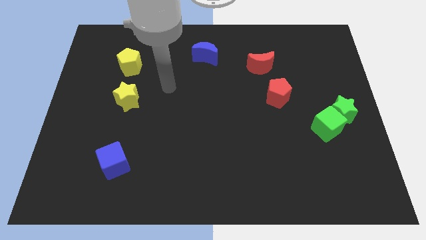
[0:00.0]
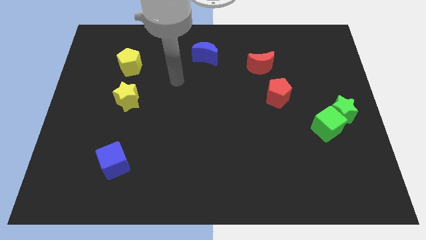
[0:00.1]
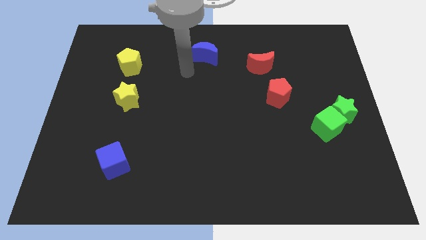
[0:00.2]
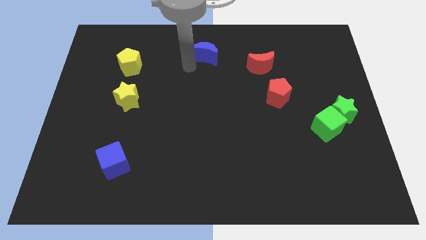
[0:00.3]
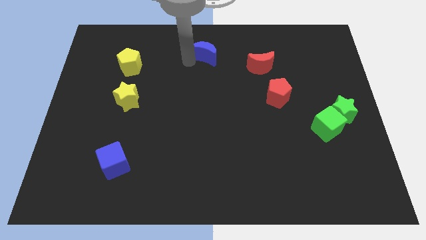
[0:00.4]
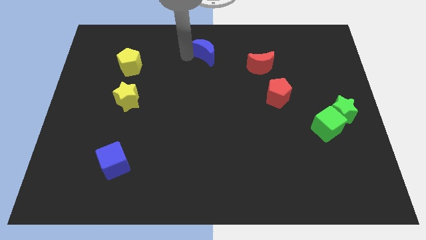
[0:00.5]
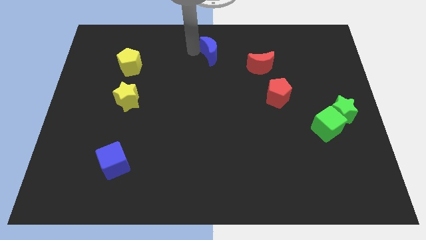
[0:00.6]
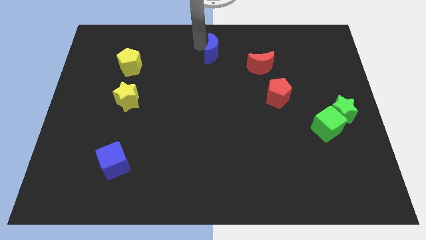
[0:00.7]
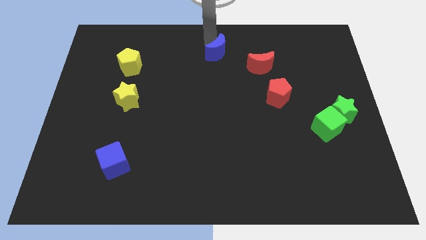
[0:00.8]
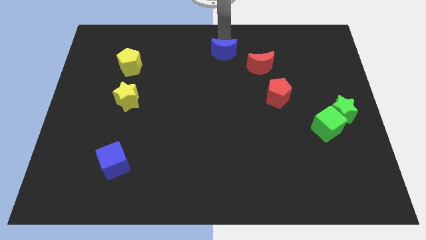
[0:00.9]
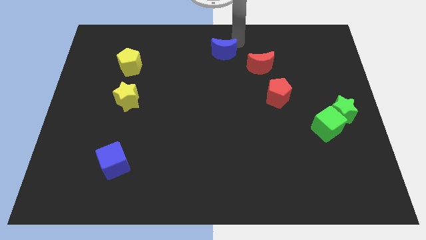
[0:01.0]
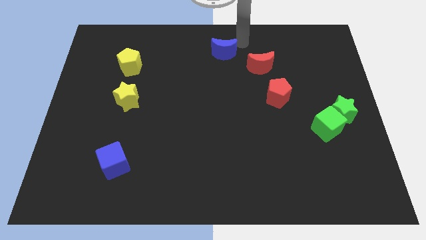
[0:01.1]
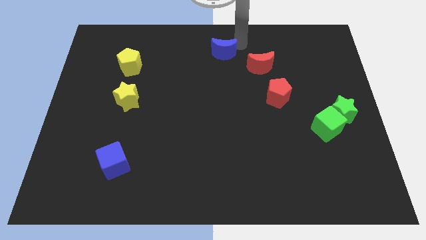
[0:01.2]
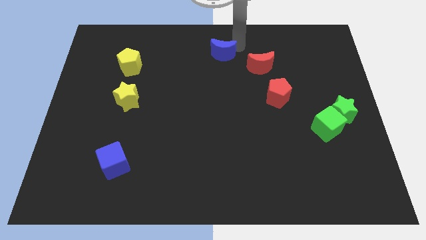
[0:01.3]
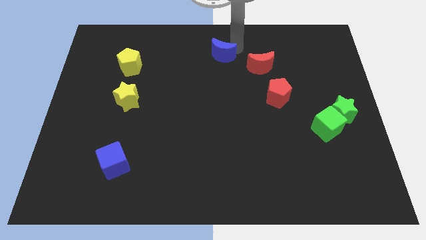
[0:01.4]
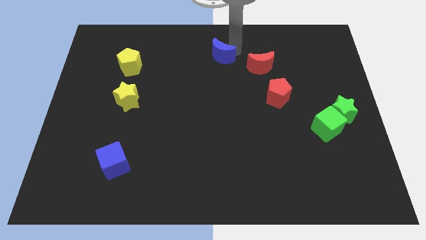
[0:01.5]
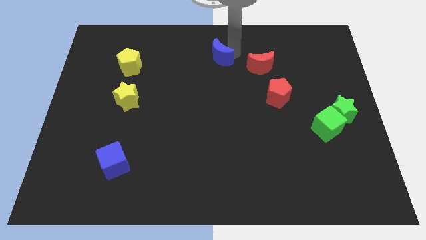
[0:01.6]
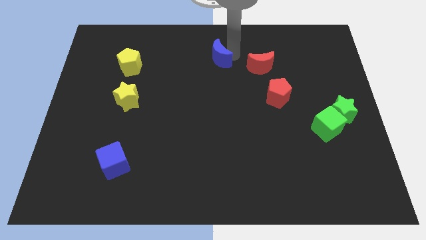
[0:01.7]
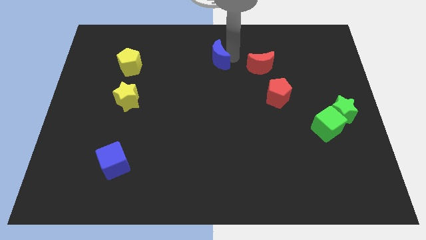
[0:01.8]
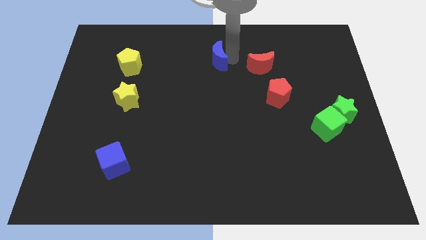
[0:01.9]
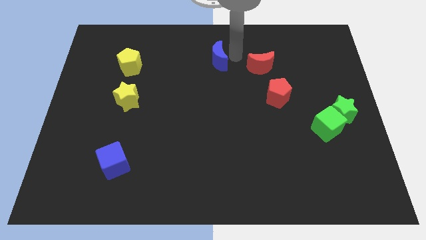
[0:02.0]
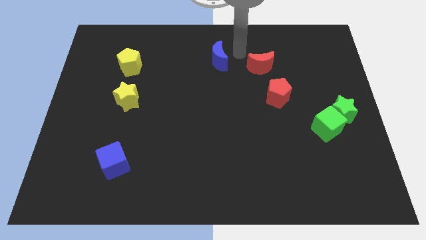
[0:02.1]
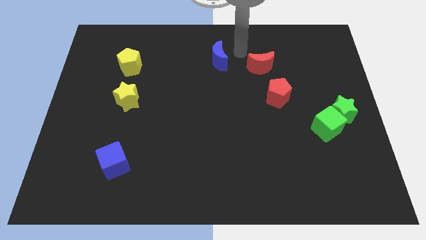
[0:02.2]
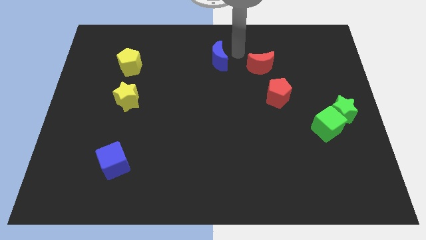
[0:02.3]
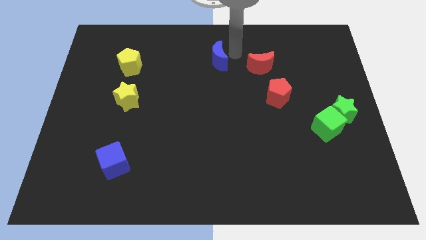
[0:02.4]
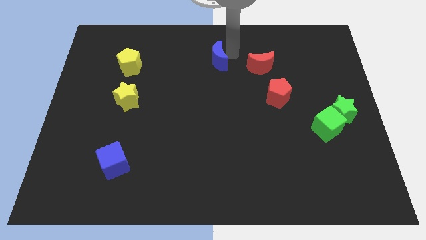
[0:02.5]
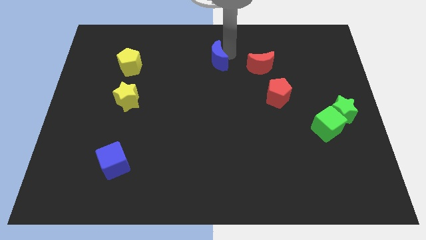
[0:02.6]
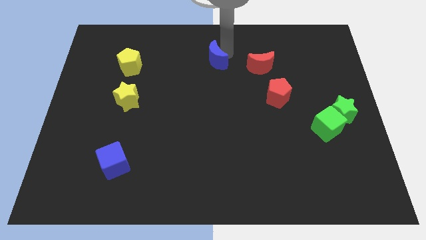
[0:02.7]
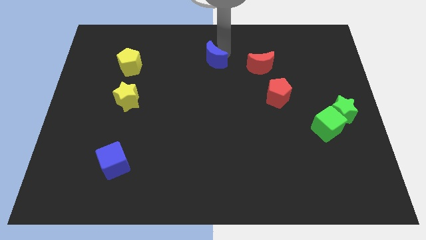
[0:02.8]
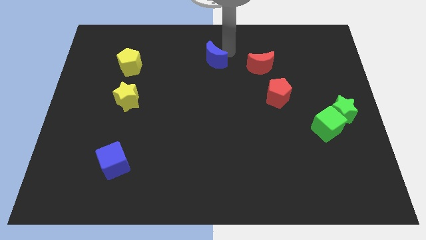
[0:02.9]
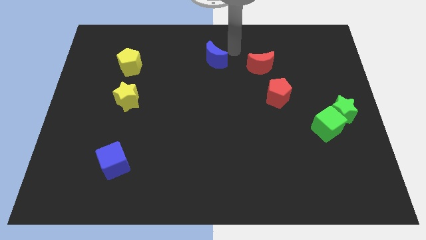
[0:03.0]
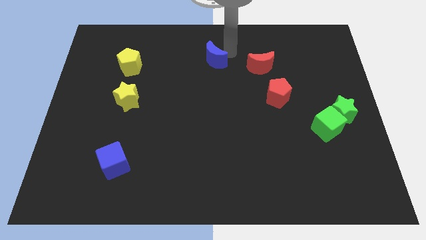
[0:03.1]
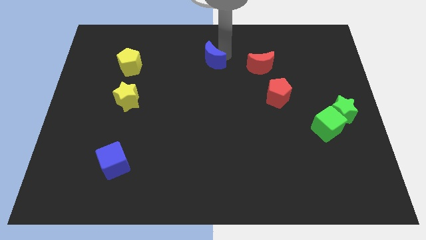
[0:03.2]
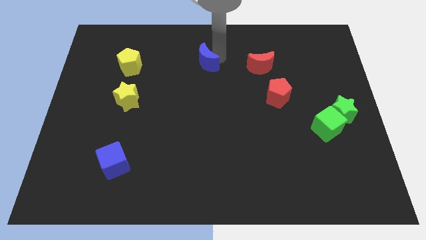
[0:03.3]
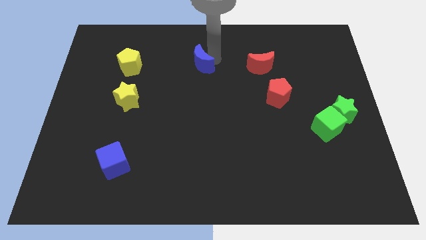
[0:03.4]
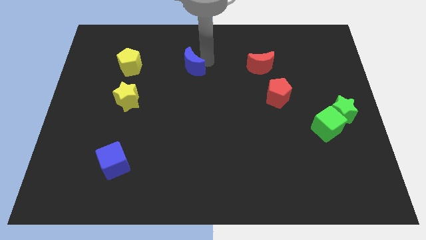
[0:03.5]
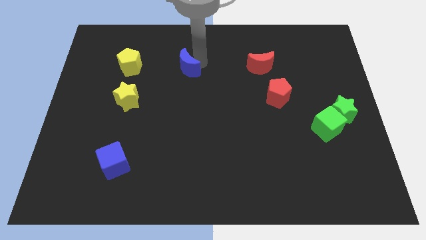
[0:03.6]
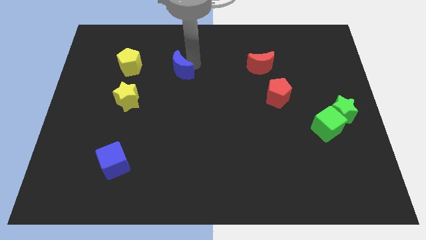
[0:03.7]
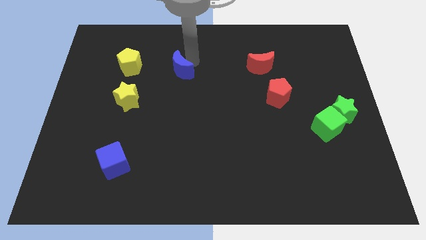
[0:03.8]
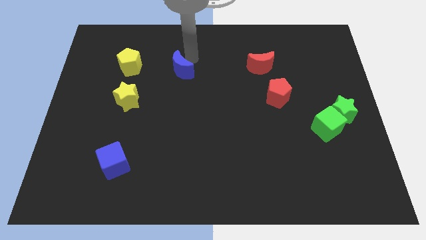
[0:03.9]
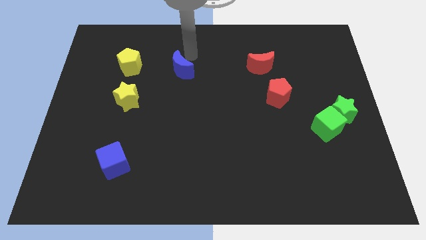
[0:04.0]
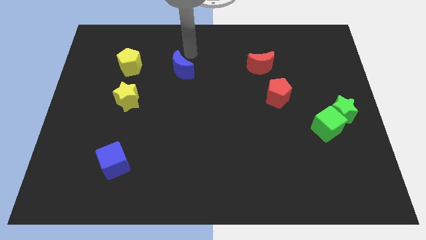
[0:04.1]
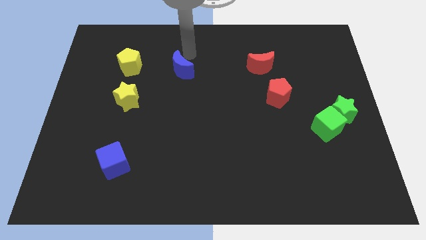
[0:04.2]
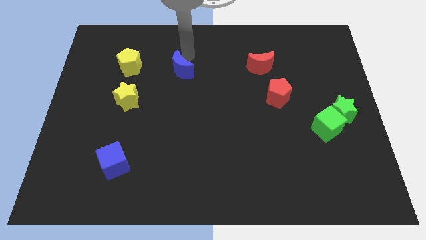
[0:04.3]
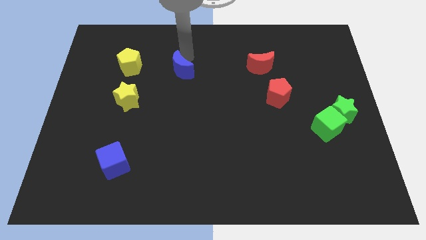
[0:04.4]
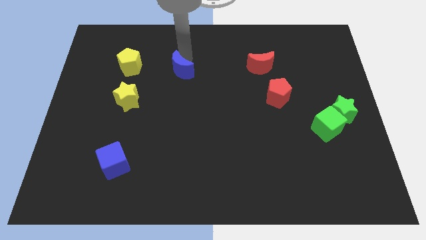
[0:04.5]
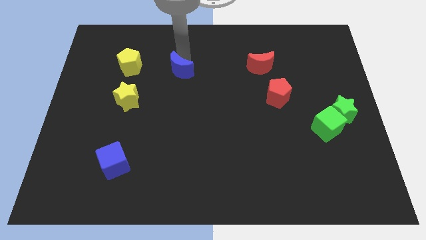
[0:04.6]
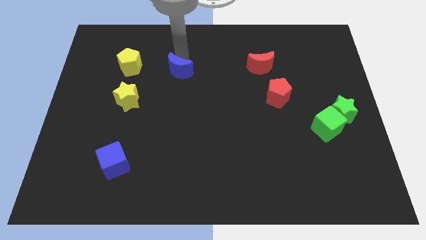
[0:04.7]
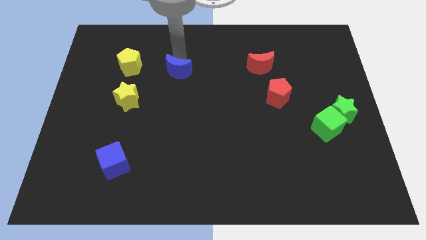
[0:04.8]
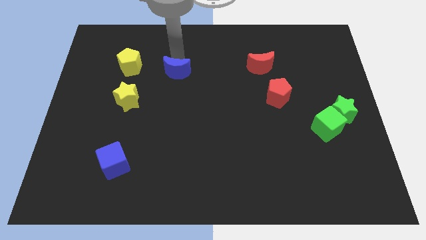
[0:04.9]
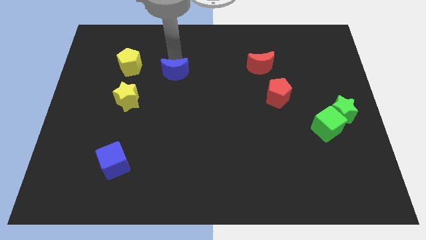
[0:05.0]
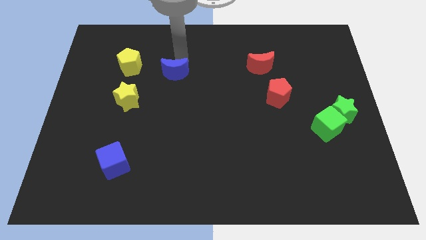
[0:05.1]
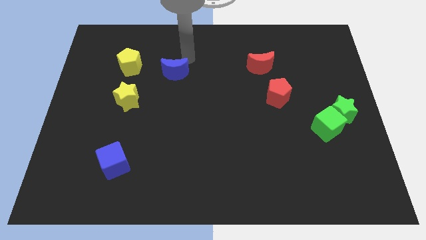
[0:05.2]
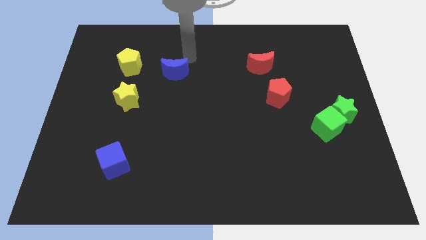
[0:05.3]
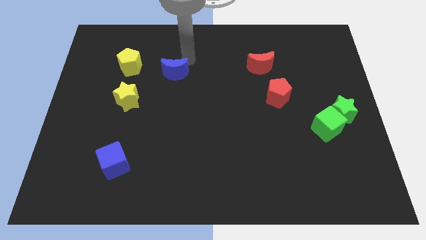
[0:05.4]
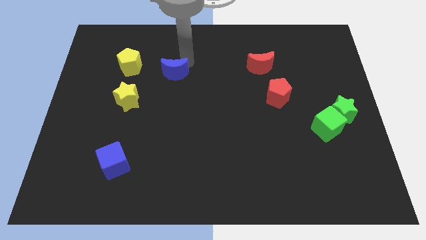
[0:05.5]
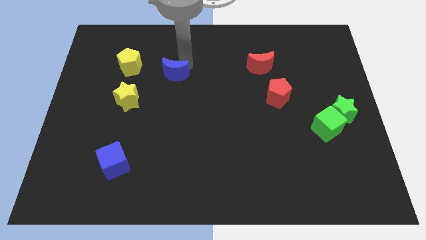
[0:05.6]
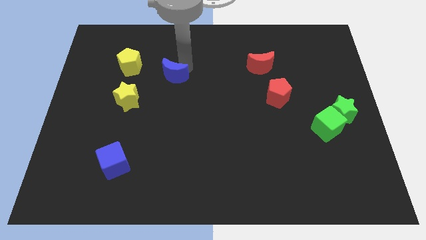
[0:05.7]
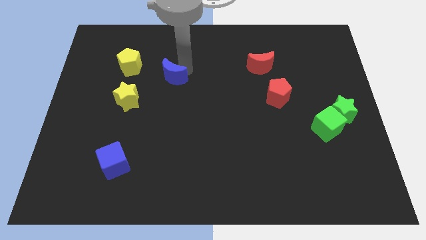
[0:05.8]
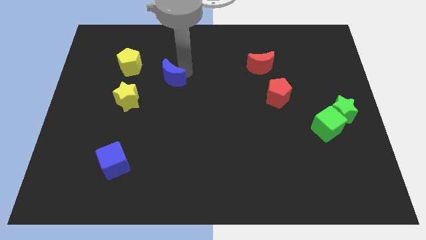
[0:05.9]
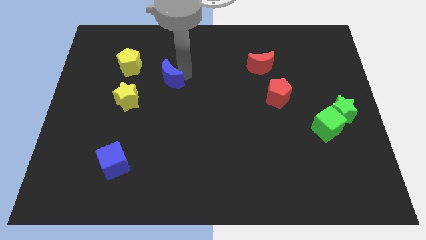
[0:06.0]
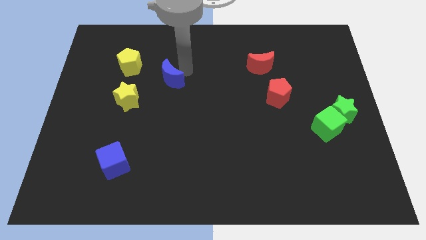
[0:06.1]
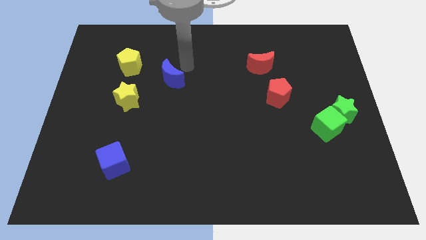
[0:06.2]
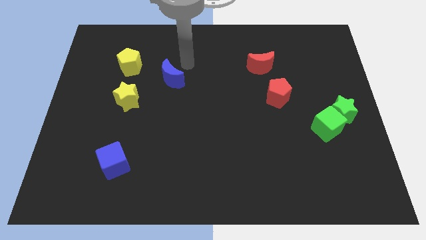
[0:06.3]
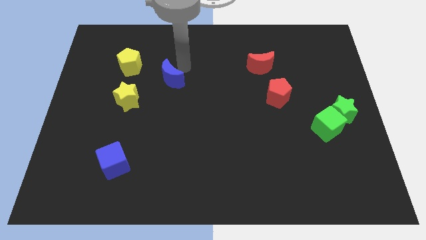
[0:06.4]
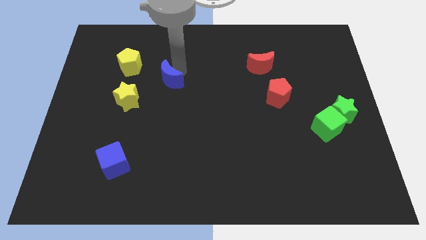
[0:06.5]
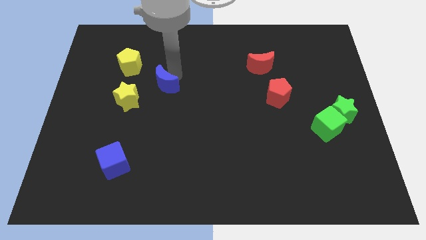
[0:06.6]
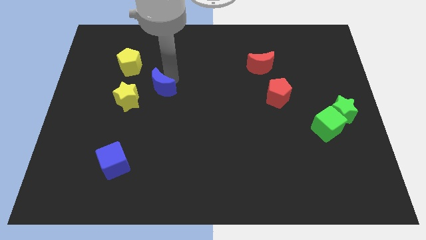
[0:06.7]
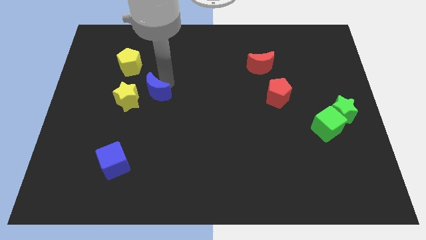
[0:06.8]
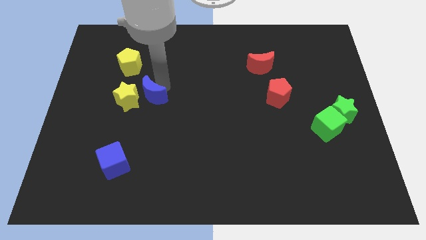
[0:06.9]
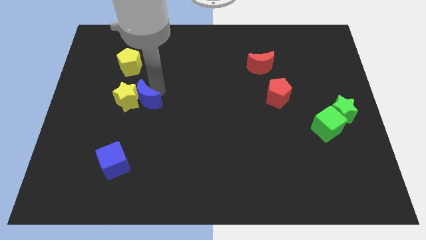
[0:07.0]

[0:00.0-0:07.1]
push the blue moon diagonally down and left

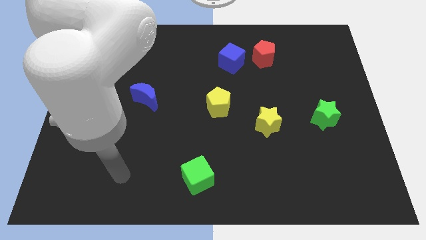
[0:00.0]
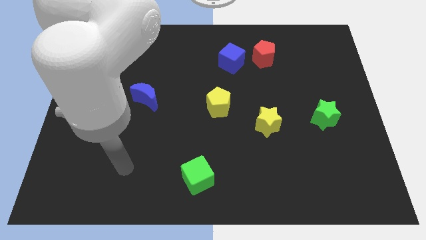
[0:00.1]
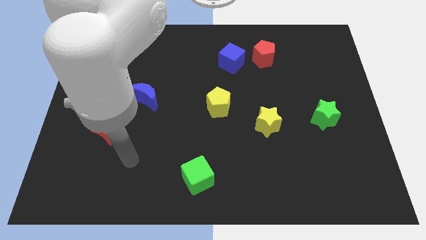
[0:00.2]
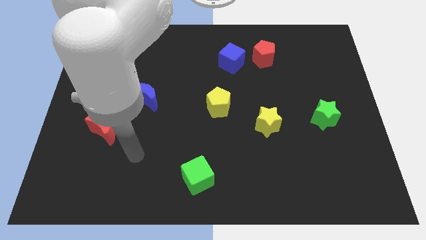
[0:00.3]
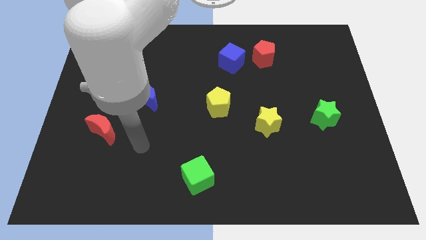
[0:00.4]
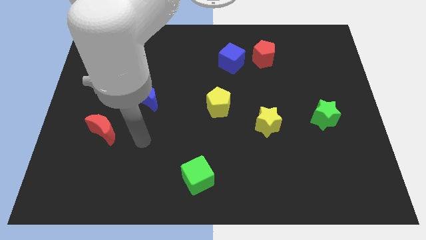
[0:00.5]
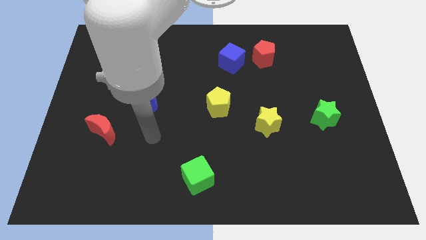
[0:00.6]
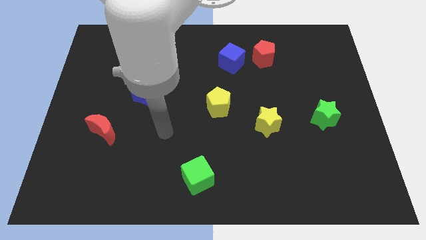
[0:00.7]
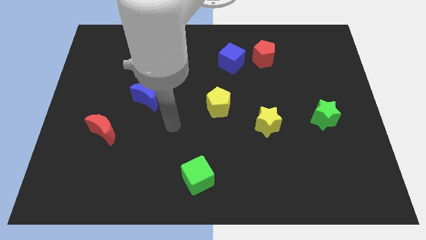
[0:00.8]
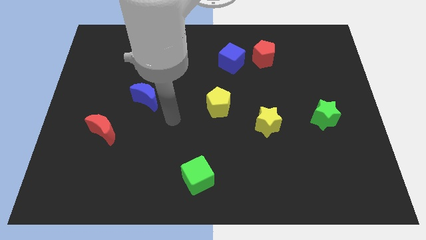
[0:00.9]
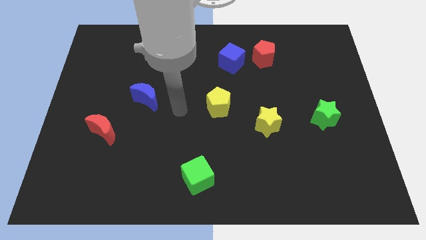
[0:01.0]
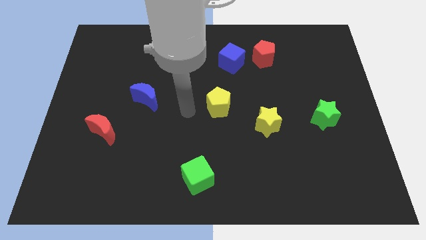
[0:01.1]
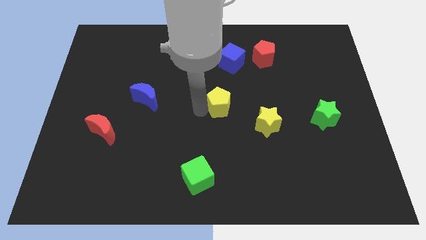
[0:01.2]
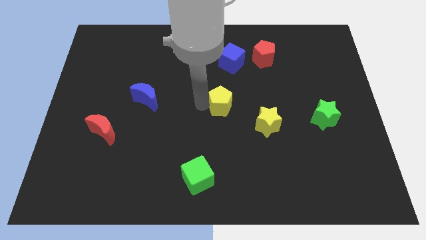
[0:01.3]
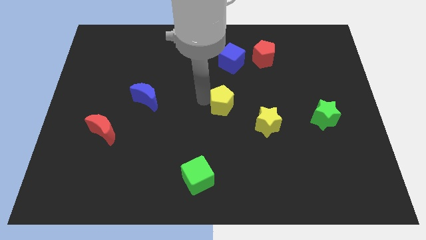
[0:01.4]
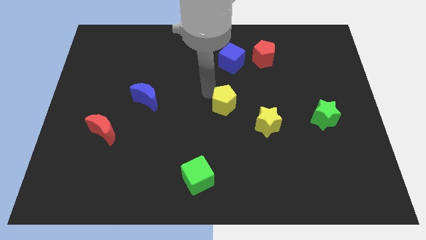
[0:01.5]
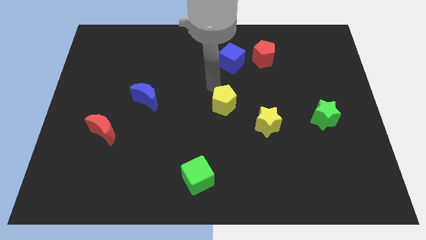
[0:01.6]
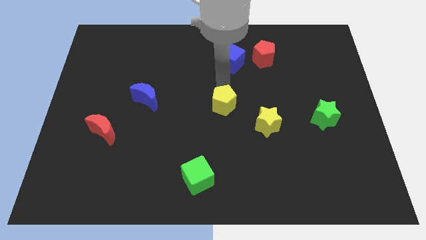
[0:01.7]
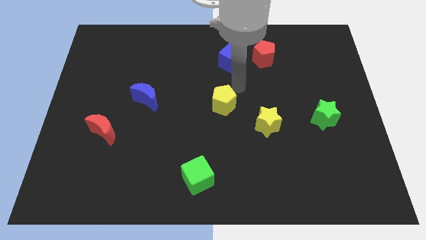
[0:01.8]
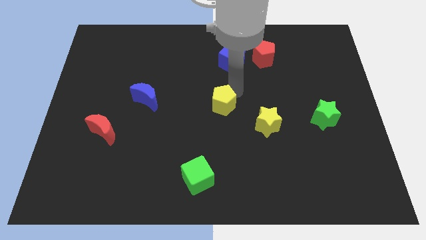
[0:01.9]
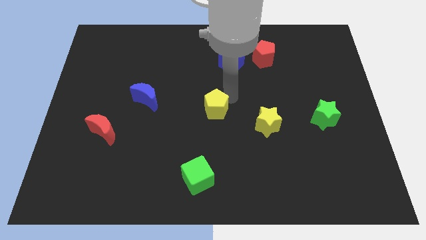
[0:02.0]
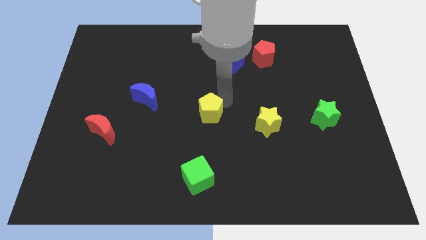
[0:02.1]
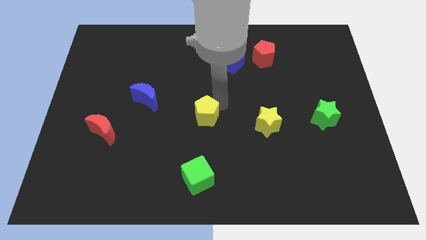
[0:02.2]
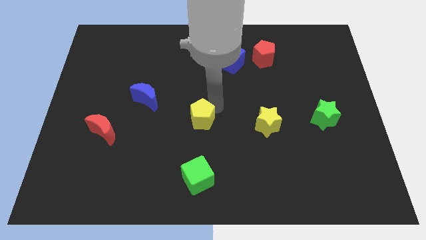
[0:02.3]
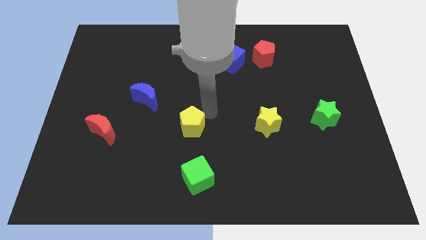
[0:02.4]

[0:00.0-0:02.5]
slightly move the yellow pentagon down and then left
